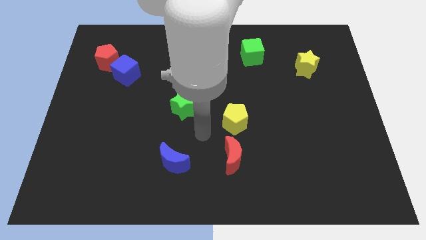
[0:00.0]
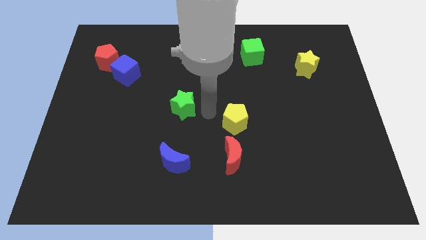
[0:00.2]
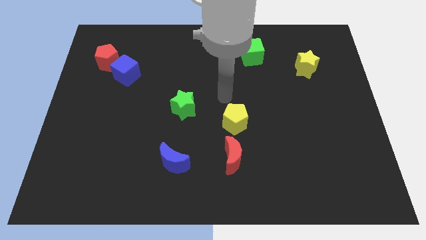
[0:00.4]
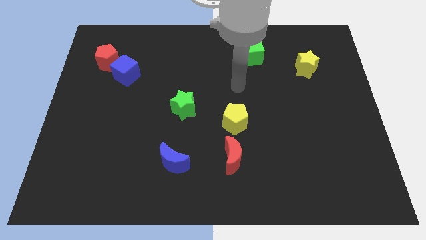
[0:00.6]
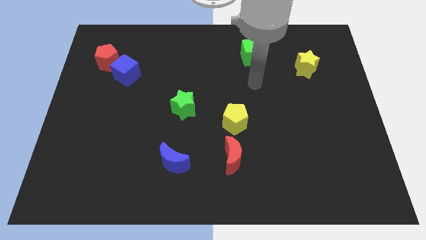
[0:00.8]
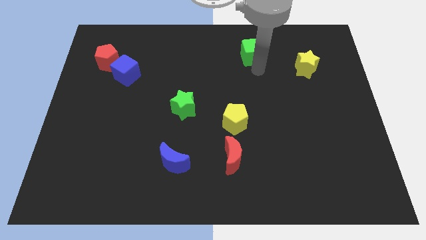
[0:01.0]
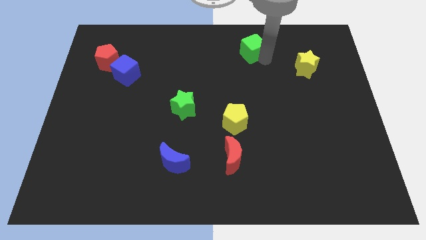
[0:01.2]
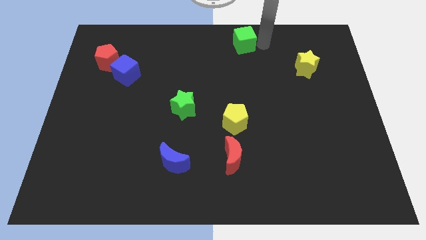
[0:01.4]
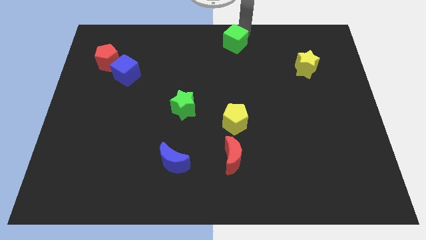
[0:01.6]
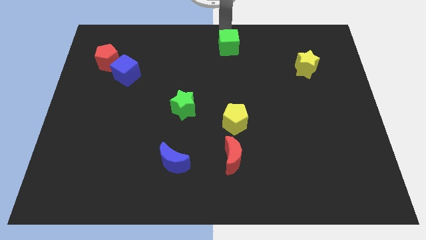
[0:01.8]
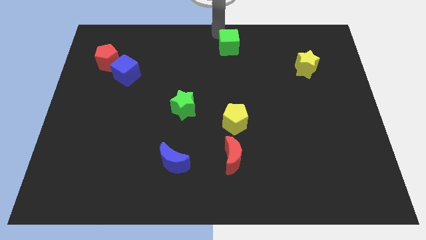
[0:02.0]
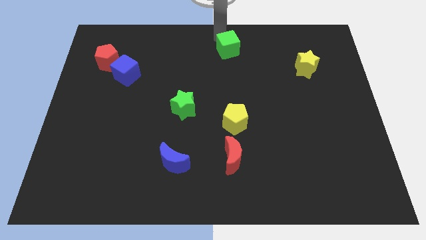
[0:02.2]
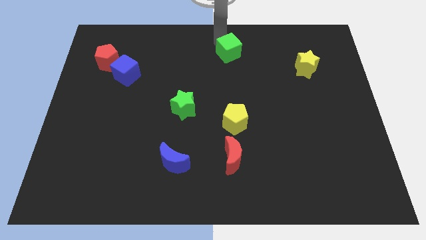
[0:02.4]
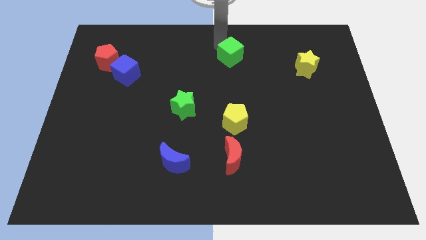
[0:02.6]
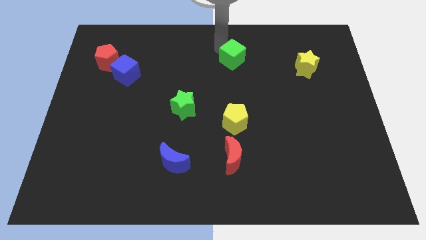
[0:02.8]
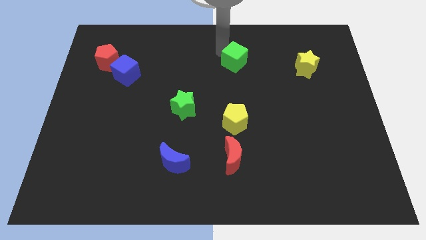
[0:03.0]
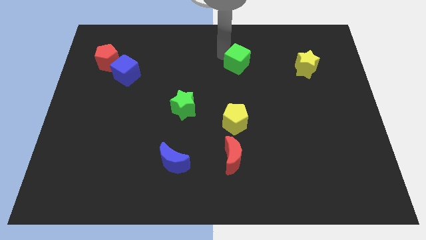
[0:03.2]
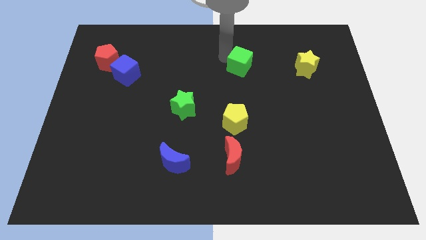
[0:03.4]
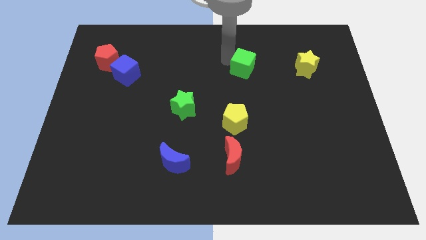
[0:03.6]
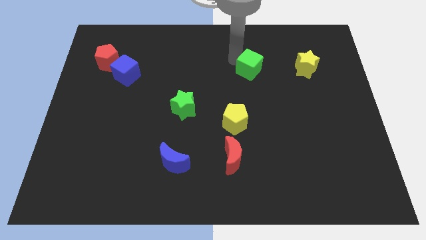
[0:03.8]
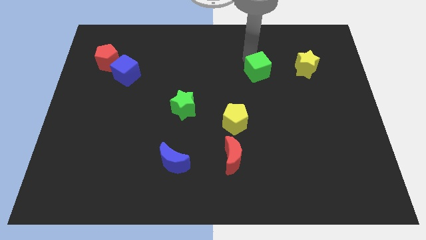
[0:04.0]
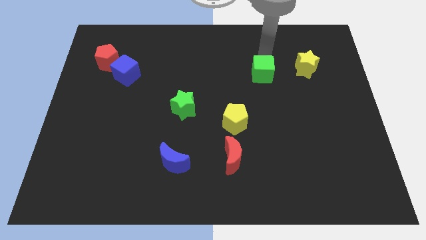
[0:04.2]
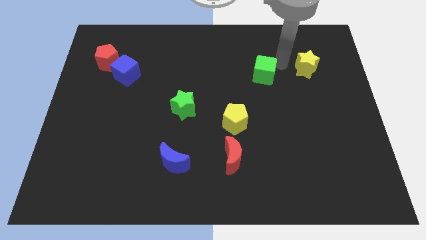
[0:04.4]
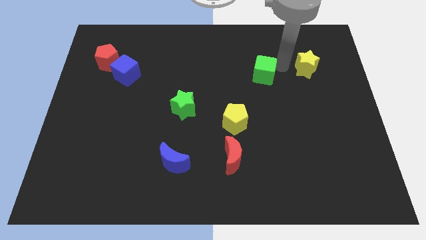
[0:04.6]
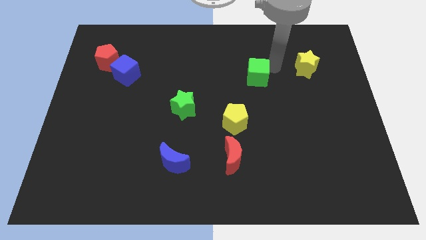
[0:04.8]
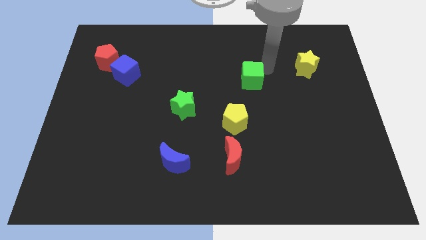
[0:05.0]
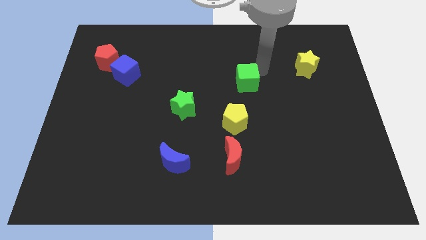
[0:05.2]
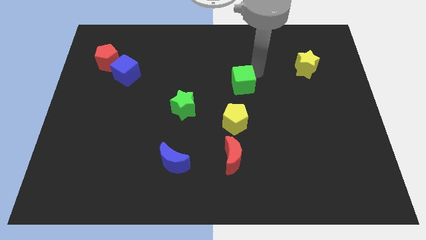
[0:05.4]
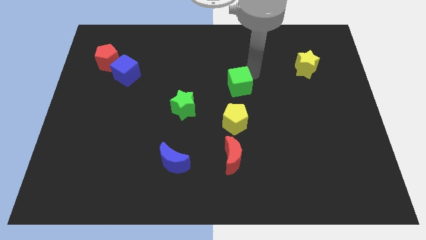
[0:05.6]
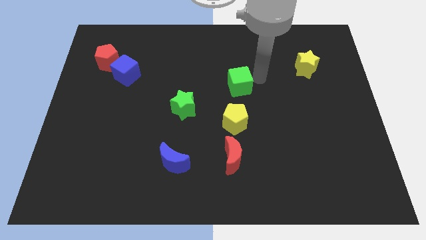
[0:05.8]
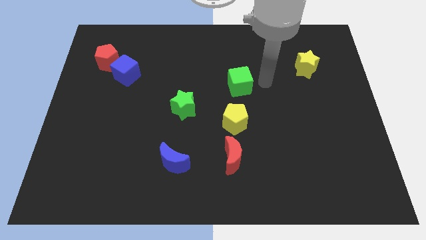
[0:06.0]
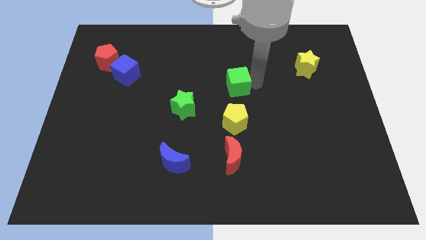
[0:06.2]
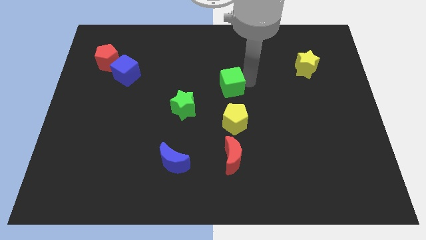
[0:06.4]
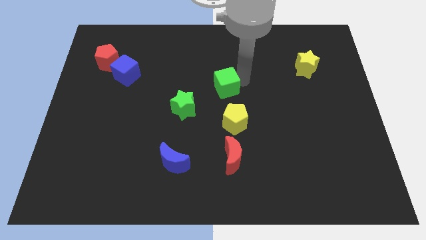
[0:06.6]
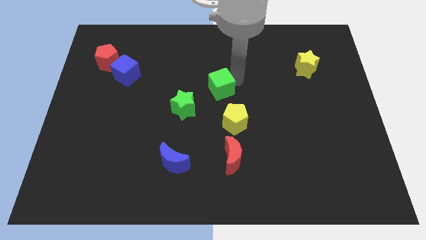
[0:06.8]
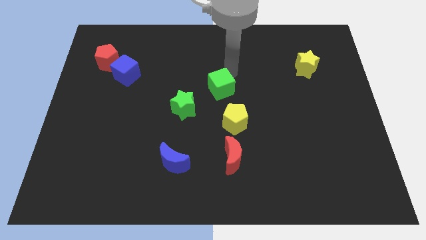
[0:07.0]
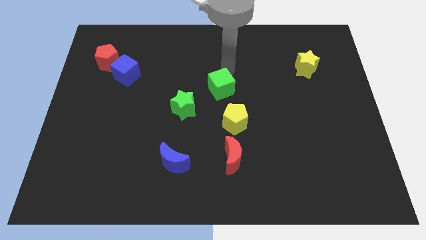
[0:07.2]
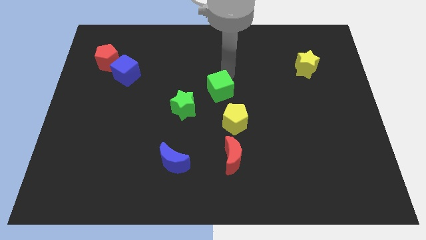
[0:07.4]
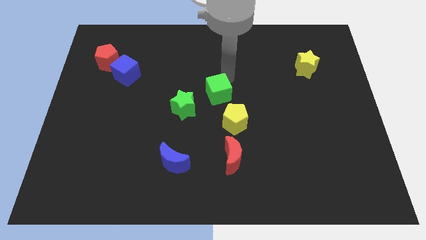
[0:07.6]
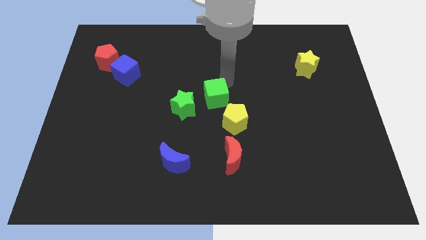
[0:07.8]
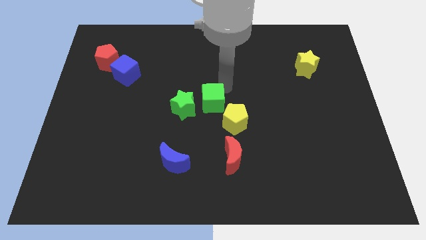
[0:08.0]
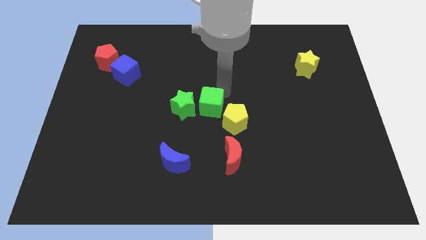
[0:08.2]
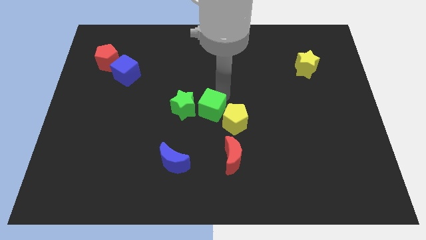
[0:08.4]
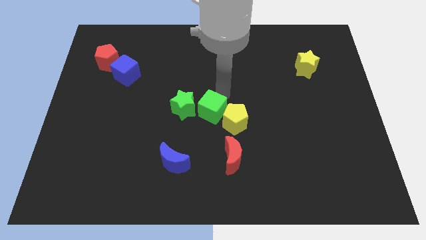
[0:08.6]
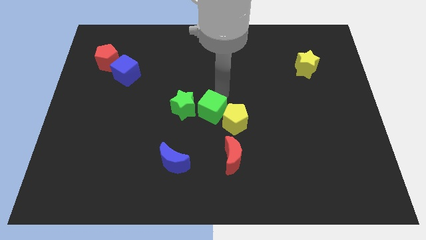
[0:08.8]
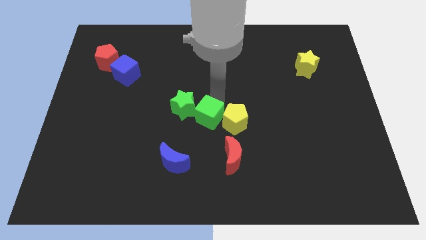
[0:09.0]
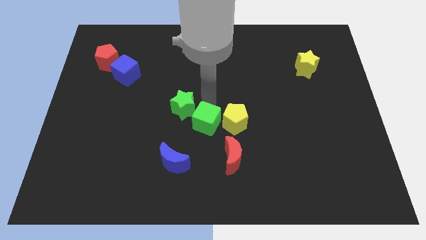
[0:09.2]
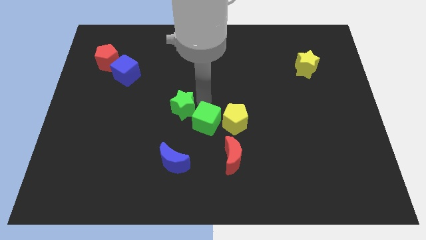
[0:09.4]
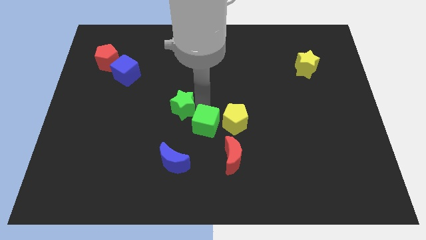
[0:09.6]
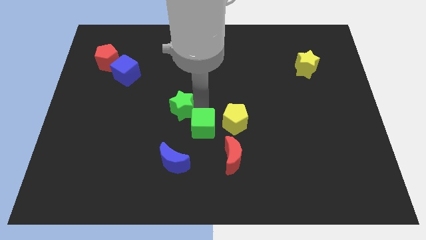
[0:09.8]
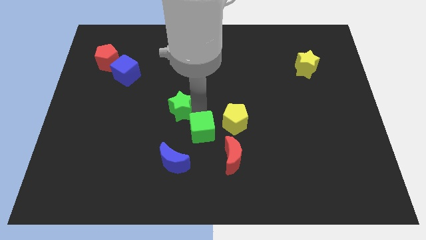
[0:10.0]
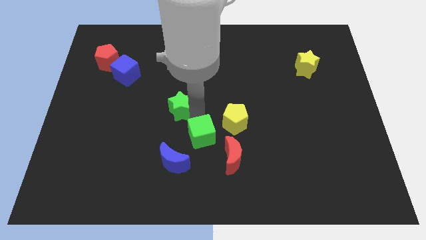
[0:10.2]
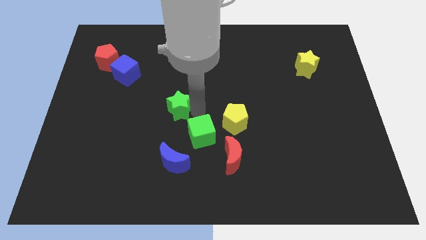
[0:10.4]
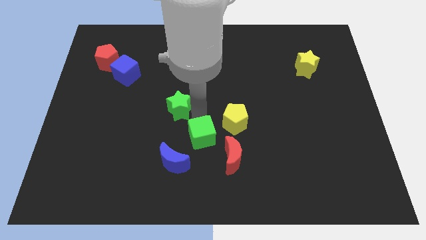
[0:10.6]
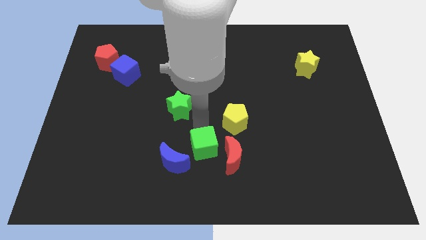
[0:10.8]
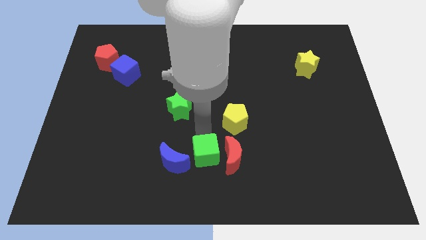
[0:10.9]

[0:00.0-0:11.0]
slide the green cube to the bottom side

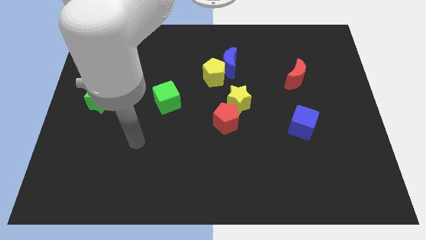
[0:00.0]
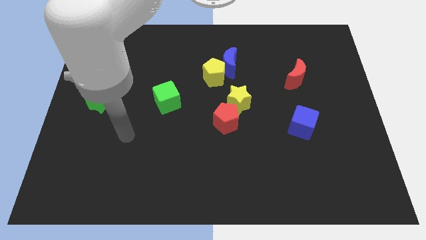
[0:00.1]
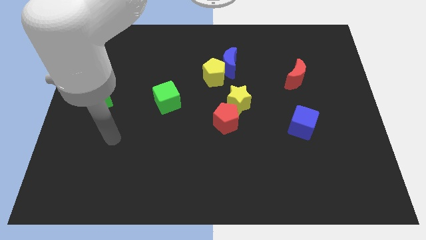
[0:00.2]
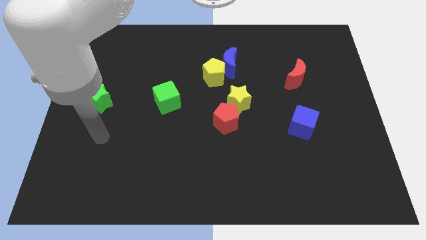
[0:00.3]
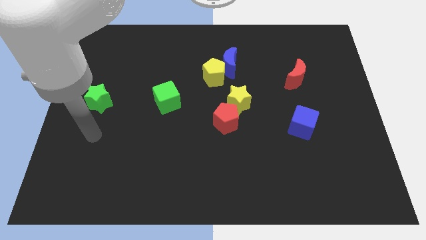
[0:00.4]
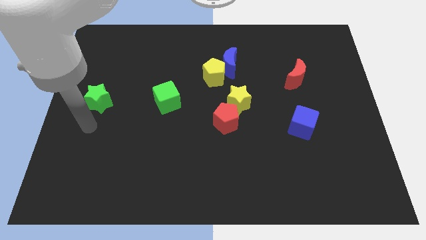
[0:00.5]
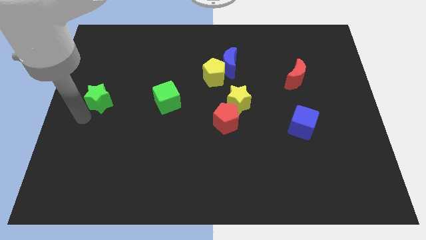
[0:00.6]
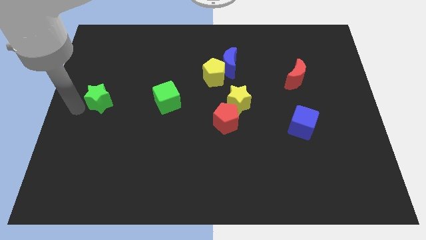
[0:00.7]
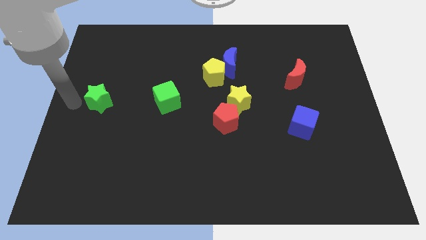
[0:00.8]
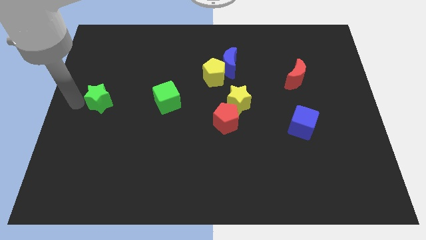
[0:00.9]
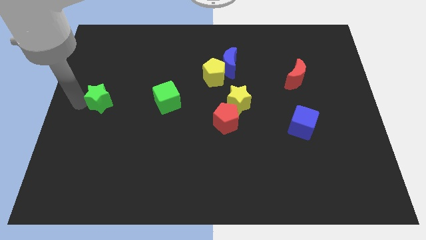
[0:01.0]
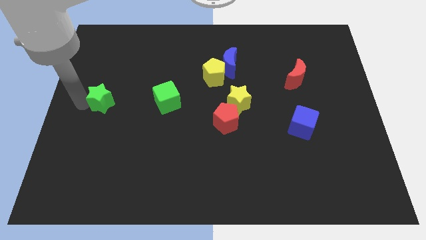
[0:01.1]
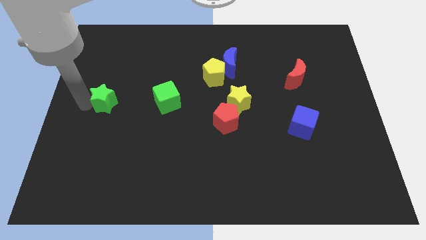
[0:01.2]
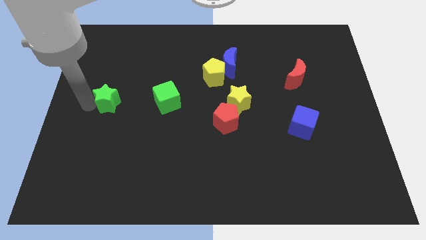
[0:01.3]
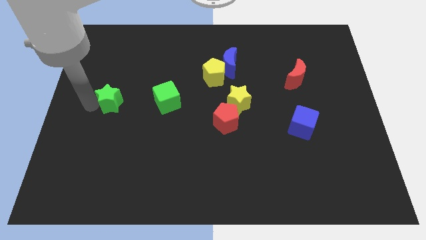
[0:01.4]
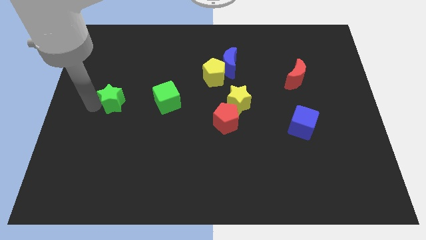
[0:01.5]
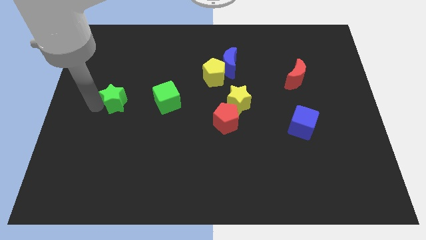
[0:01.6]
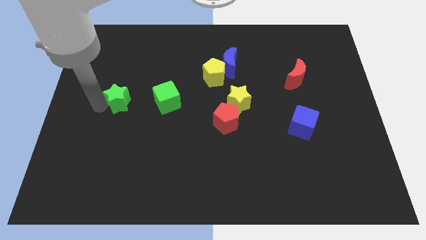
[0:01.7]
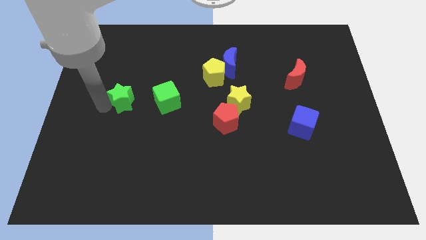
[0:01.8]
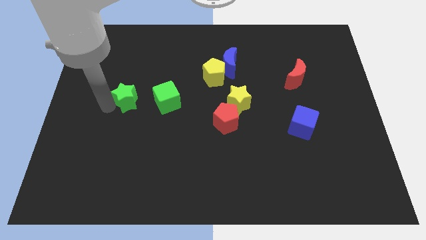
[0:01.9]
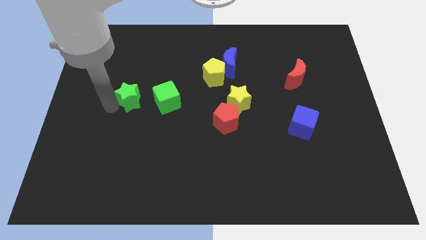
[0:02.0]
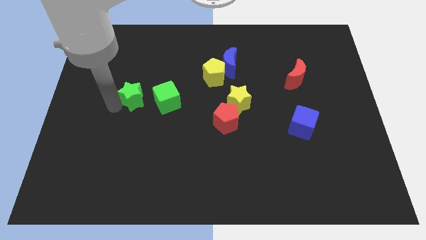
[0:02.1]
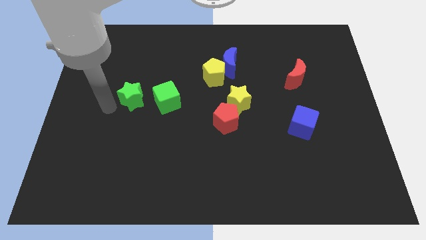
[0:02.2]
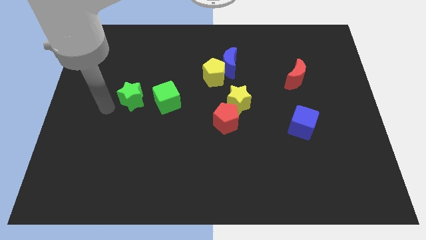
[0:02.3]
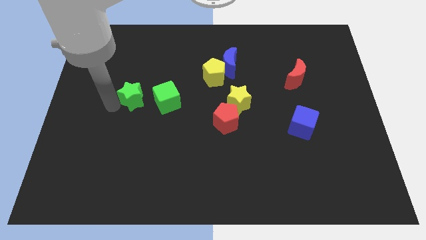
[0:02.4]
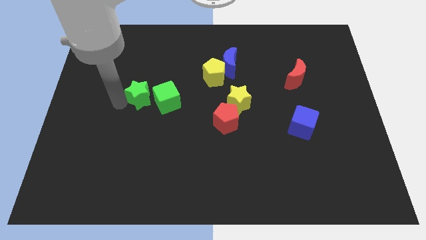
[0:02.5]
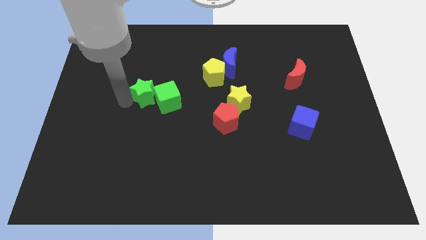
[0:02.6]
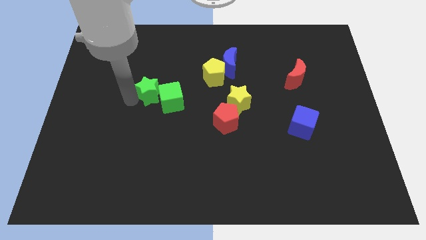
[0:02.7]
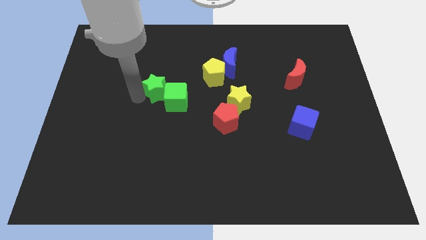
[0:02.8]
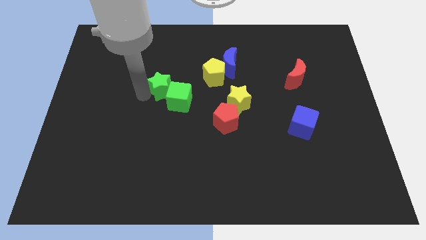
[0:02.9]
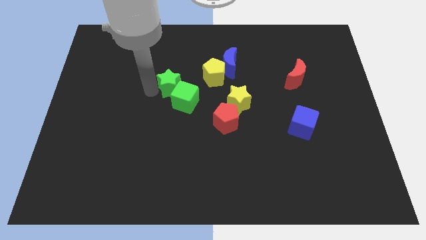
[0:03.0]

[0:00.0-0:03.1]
push the green star to the center
